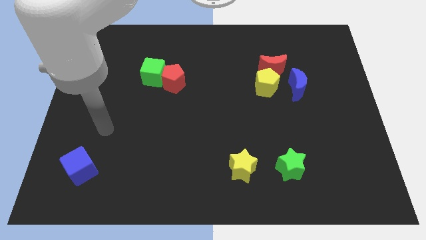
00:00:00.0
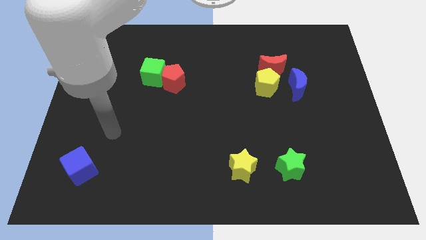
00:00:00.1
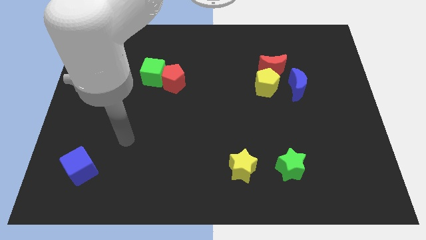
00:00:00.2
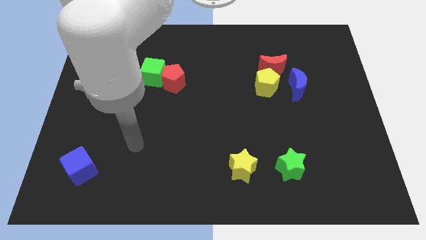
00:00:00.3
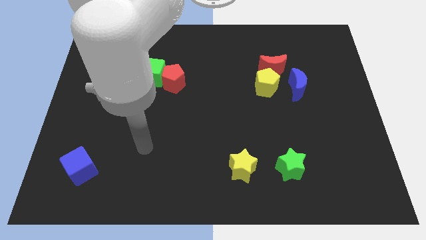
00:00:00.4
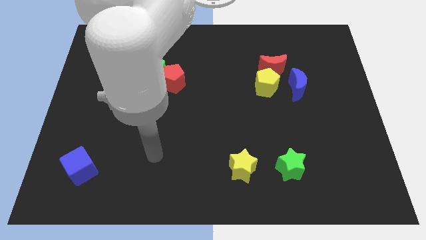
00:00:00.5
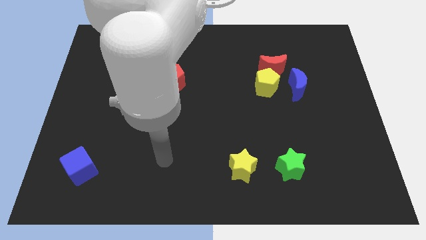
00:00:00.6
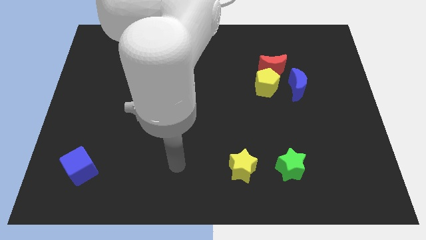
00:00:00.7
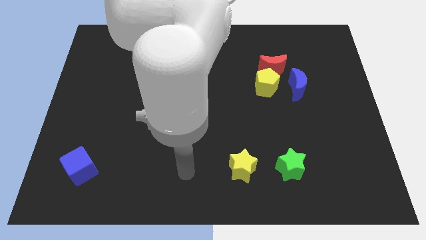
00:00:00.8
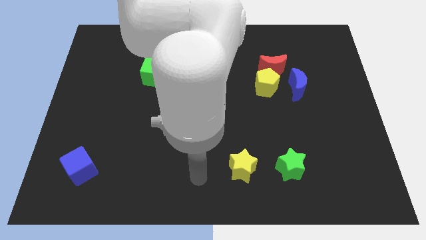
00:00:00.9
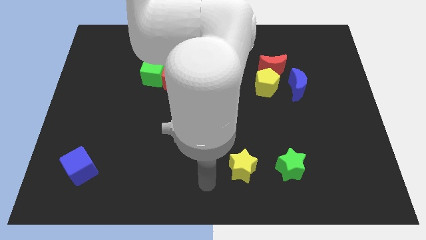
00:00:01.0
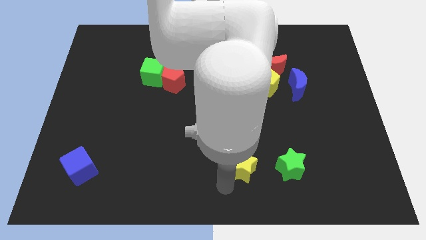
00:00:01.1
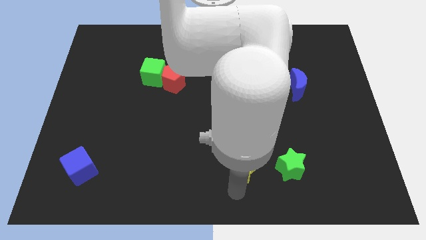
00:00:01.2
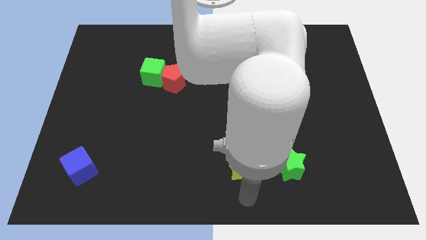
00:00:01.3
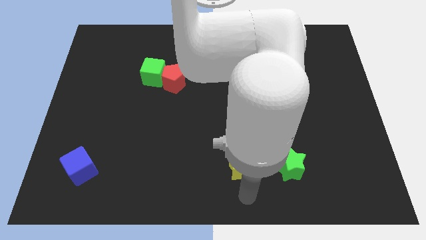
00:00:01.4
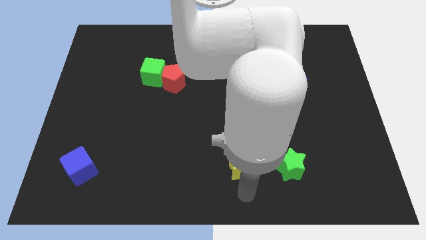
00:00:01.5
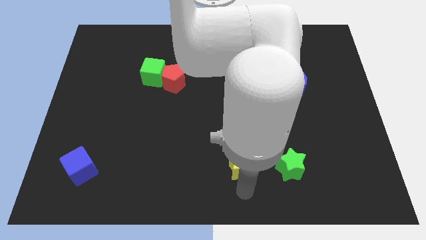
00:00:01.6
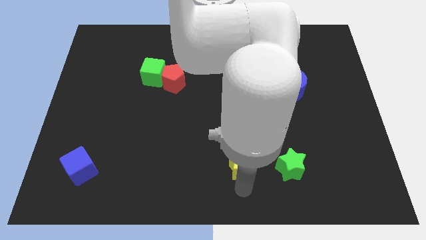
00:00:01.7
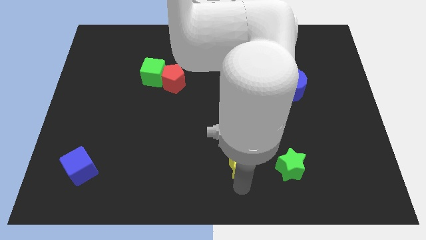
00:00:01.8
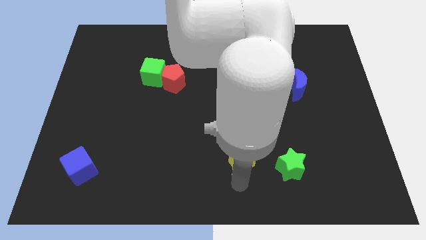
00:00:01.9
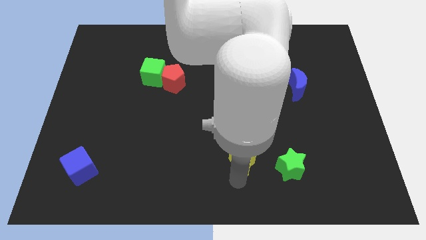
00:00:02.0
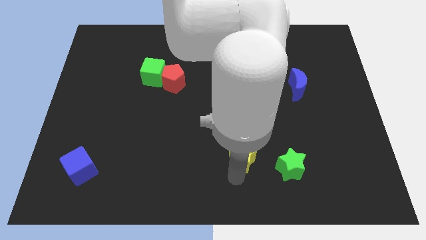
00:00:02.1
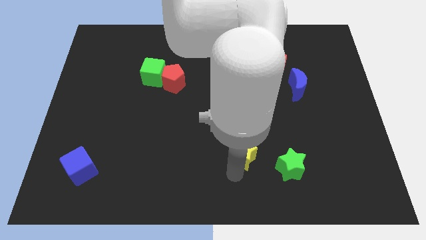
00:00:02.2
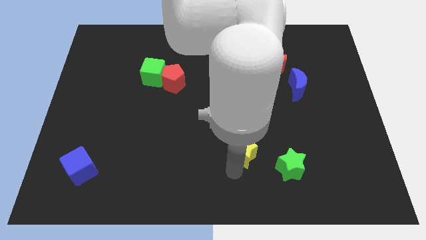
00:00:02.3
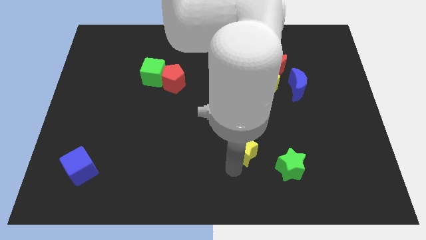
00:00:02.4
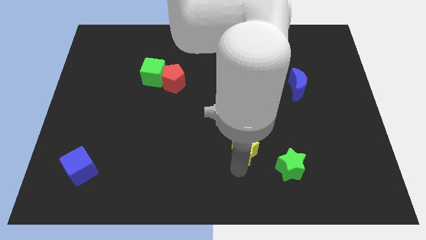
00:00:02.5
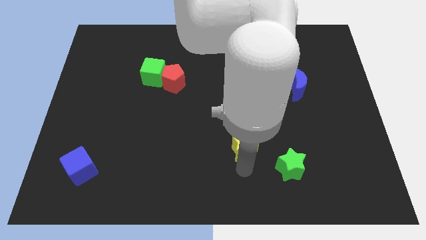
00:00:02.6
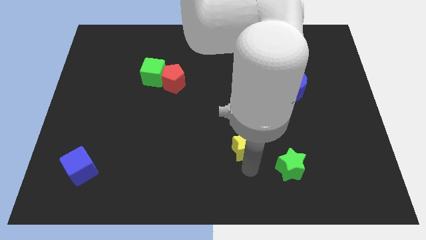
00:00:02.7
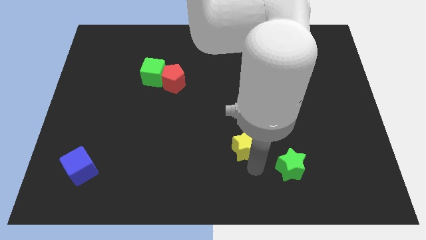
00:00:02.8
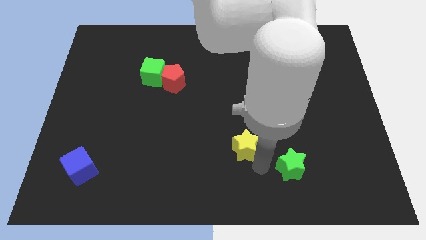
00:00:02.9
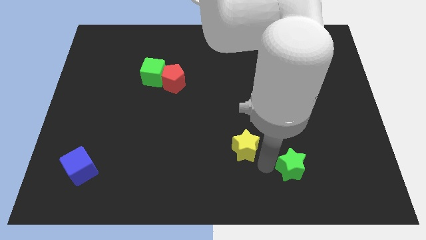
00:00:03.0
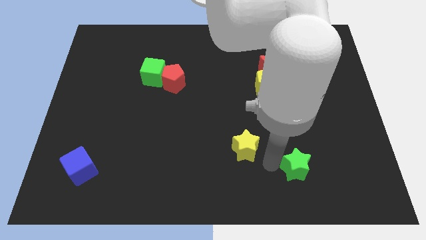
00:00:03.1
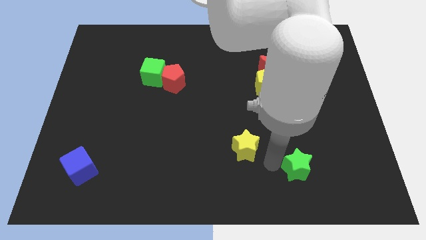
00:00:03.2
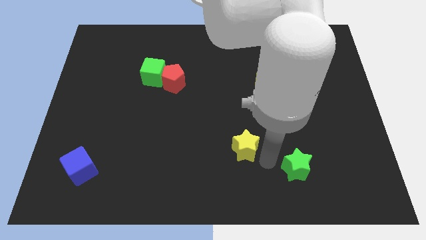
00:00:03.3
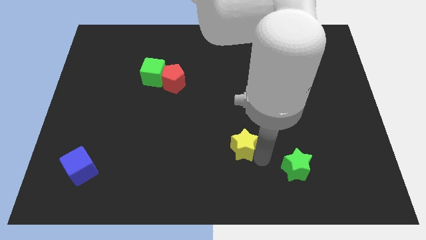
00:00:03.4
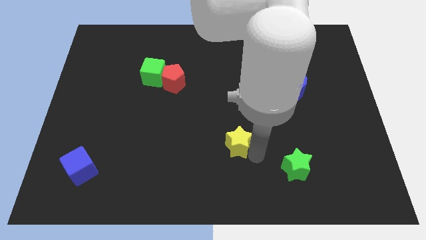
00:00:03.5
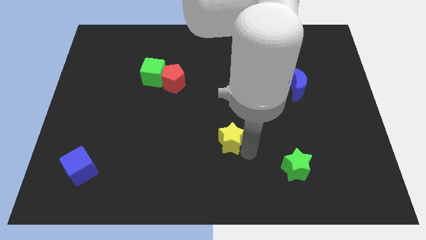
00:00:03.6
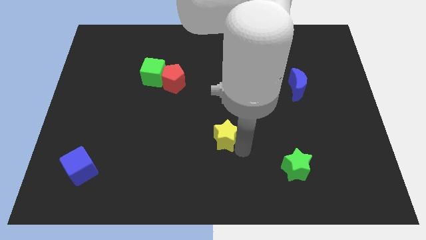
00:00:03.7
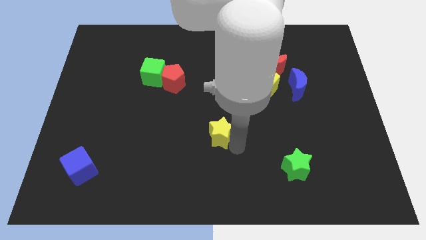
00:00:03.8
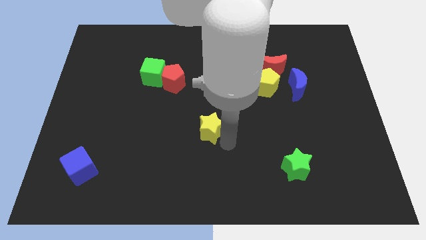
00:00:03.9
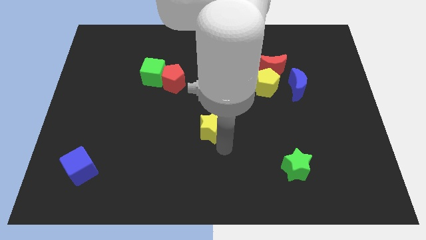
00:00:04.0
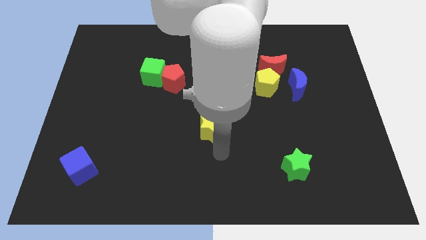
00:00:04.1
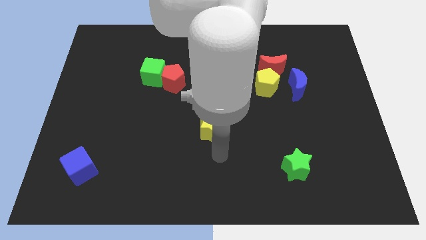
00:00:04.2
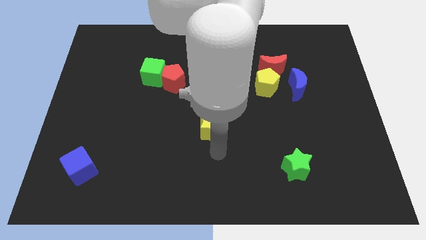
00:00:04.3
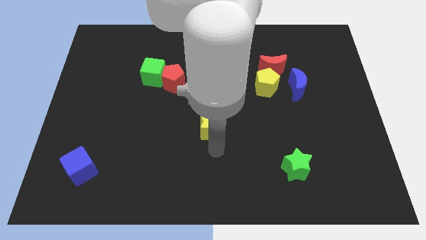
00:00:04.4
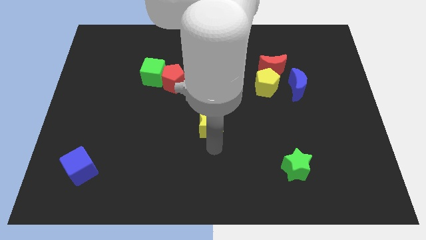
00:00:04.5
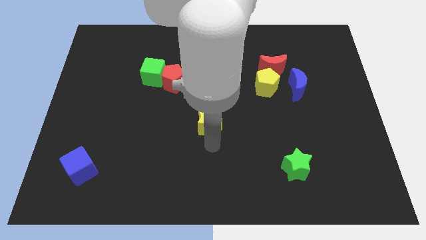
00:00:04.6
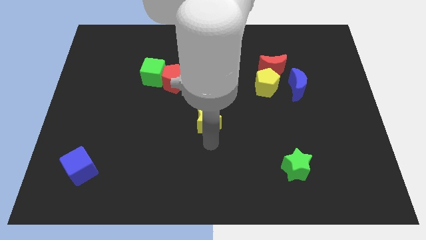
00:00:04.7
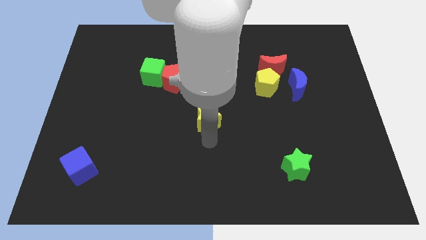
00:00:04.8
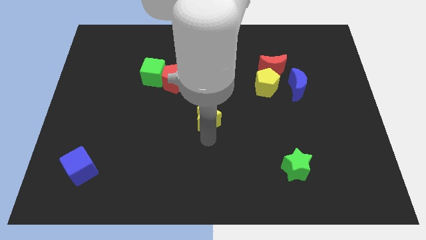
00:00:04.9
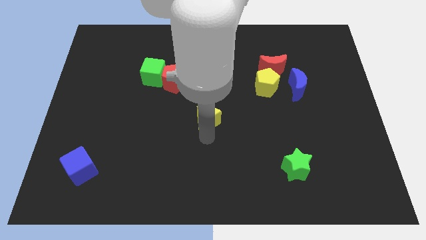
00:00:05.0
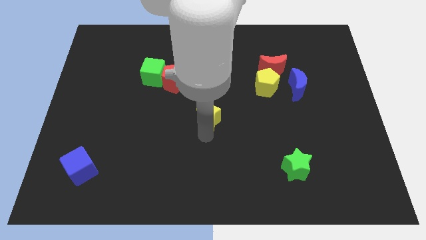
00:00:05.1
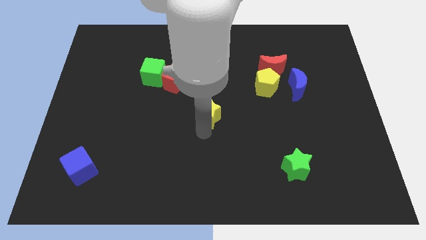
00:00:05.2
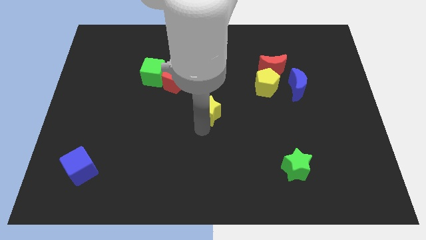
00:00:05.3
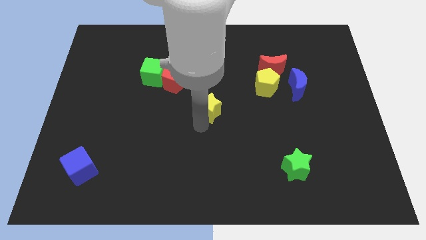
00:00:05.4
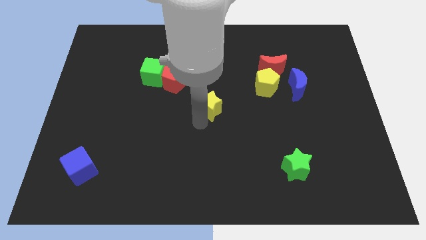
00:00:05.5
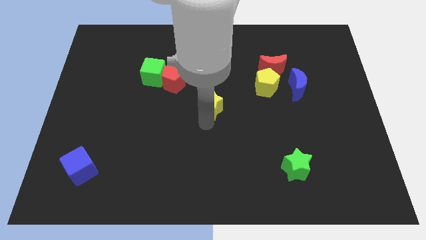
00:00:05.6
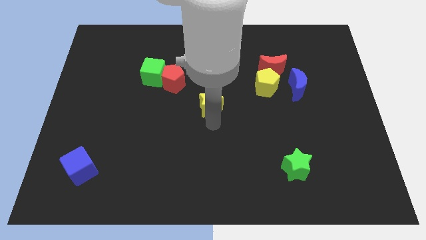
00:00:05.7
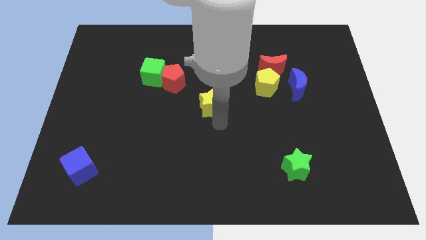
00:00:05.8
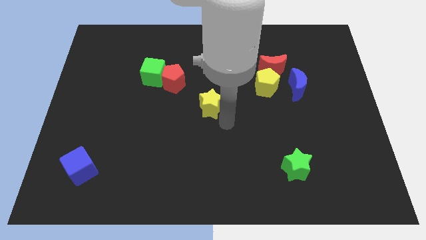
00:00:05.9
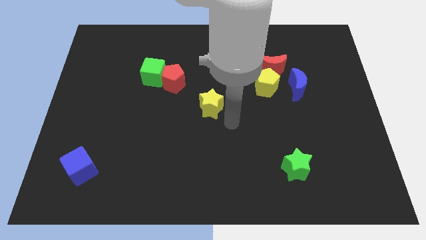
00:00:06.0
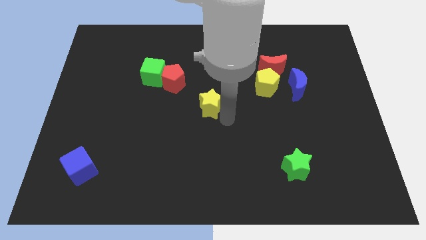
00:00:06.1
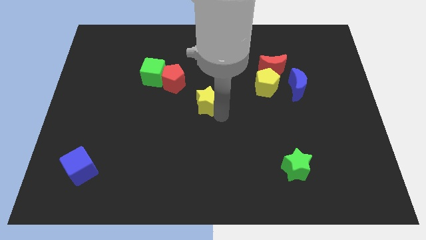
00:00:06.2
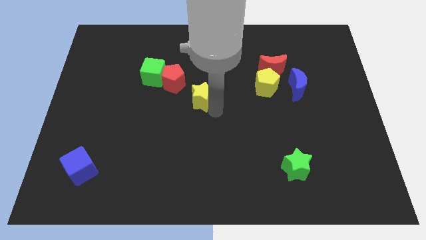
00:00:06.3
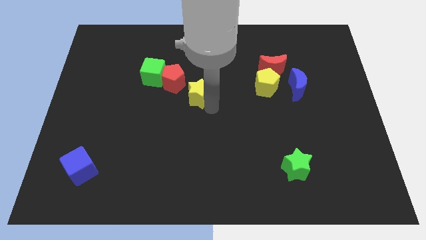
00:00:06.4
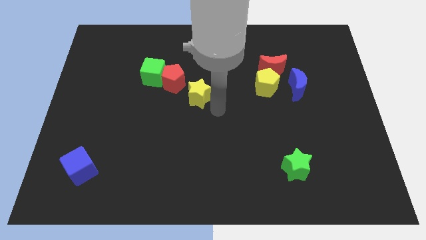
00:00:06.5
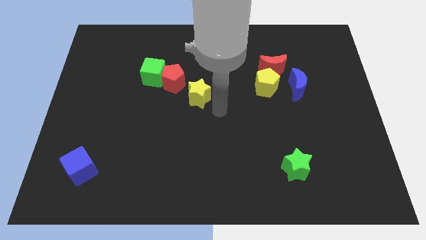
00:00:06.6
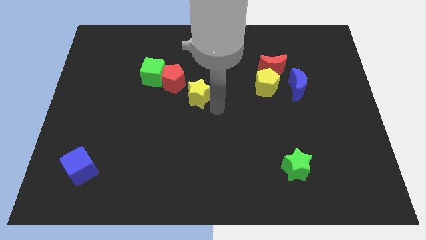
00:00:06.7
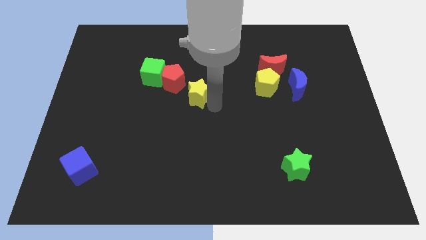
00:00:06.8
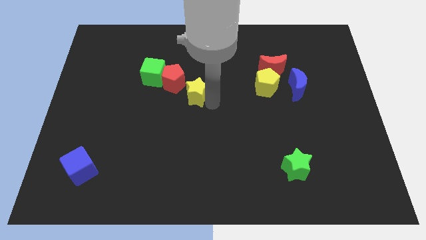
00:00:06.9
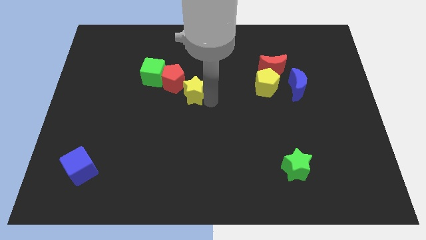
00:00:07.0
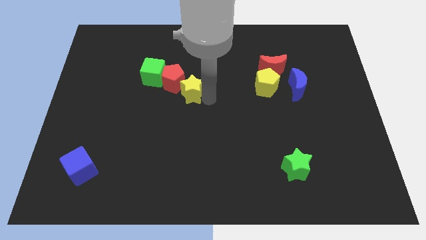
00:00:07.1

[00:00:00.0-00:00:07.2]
push the yellow star towards the red pentagon
